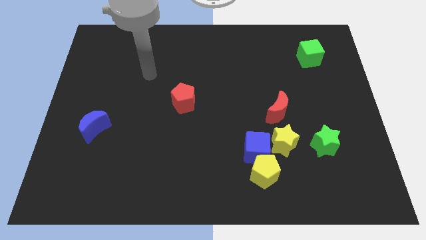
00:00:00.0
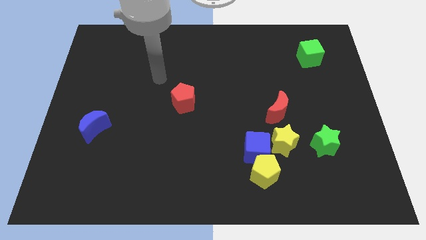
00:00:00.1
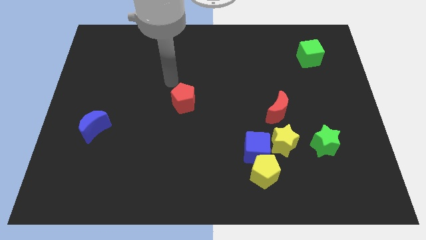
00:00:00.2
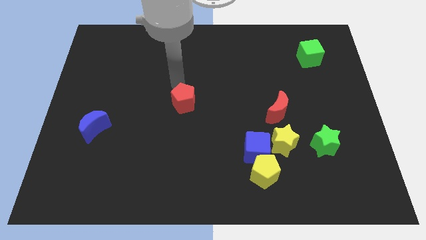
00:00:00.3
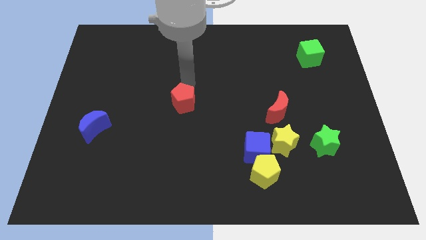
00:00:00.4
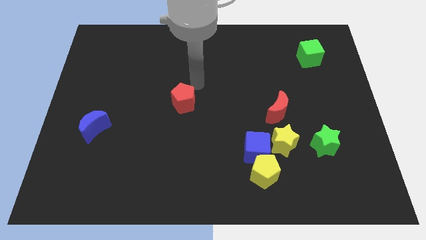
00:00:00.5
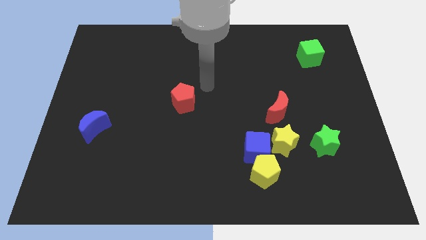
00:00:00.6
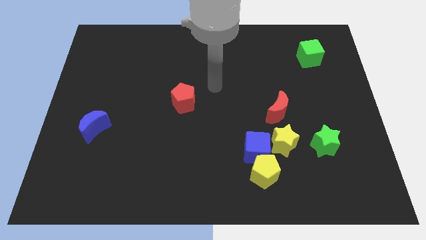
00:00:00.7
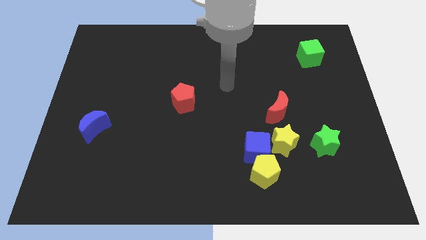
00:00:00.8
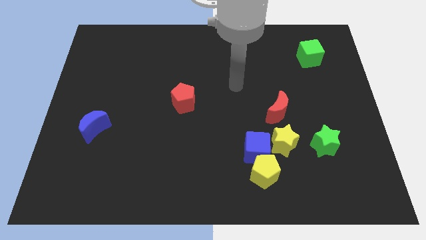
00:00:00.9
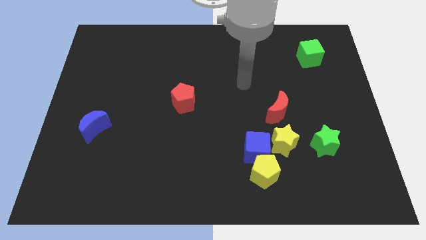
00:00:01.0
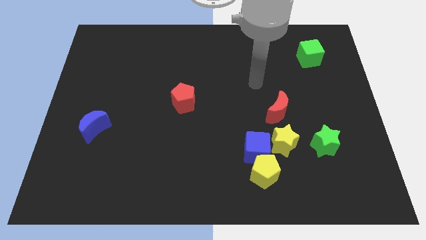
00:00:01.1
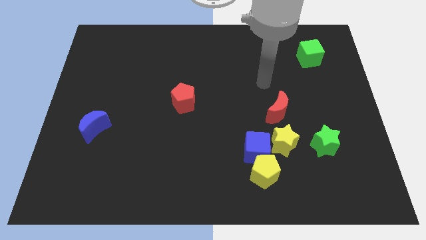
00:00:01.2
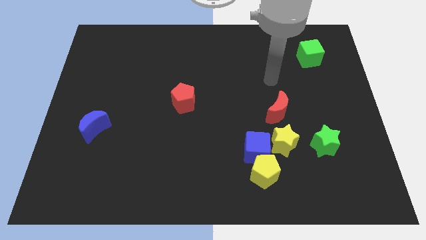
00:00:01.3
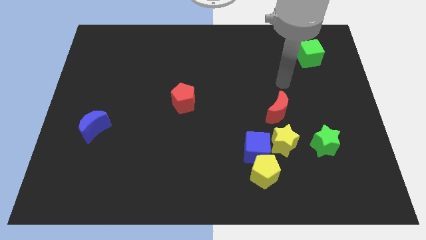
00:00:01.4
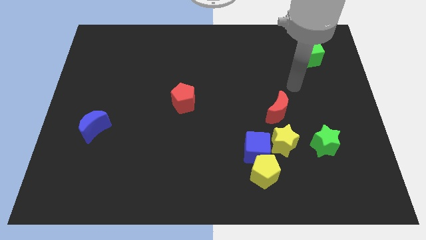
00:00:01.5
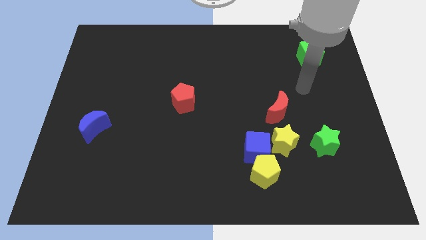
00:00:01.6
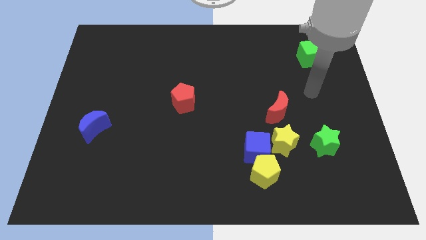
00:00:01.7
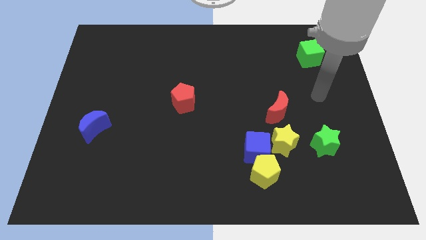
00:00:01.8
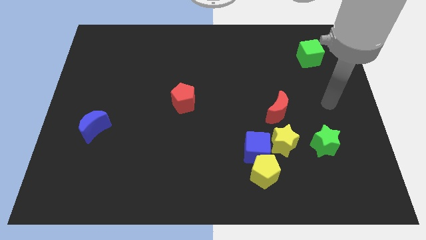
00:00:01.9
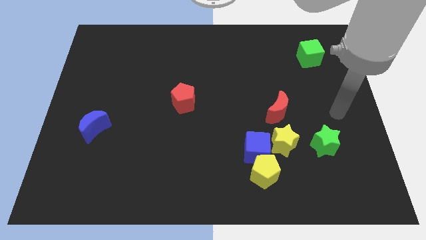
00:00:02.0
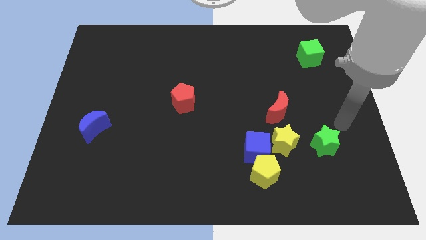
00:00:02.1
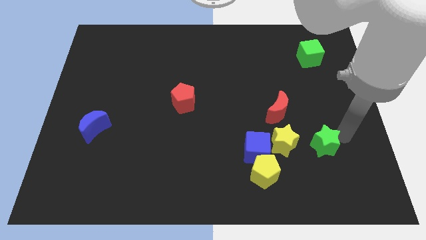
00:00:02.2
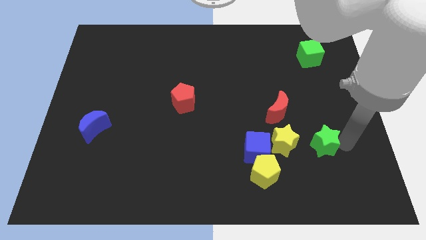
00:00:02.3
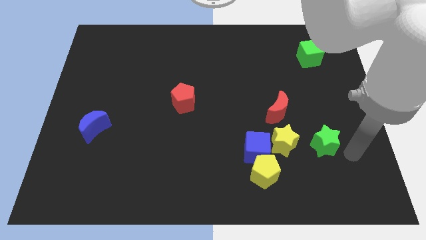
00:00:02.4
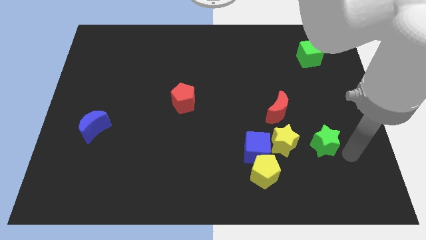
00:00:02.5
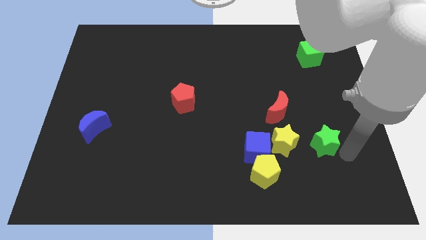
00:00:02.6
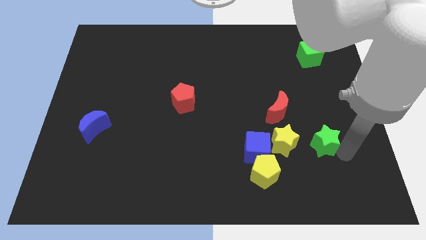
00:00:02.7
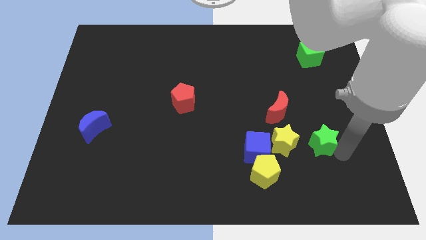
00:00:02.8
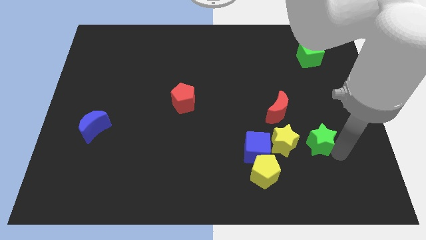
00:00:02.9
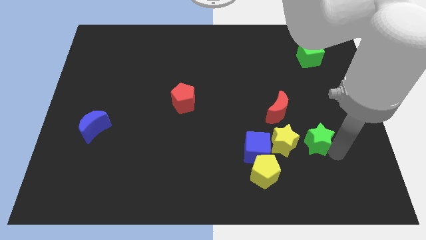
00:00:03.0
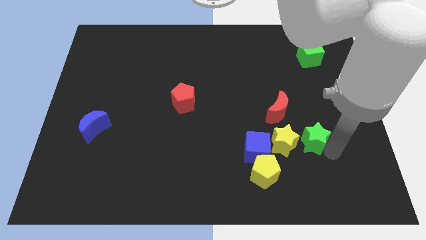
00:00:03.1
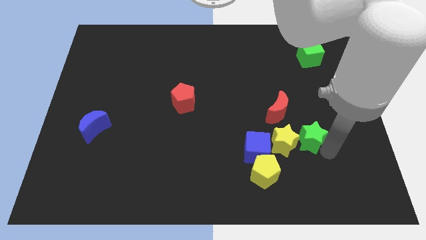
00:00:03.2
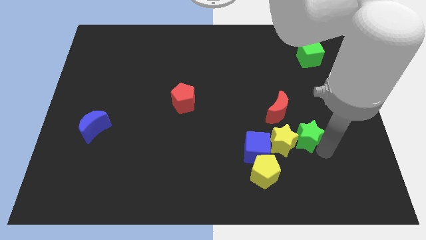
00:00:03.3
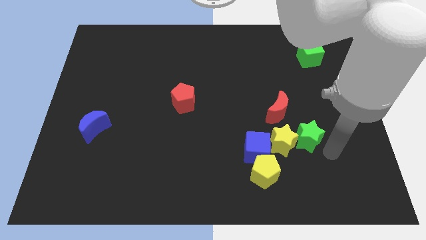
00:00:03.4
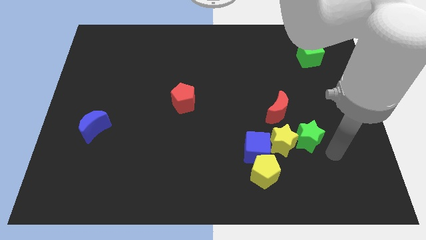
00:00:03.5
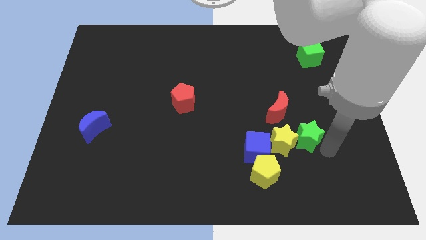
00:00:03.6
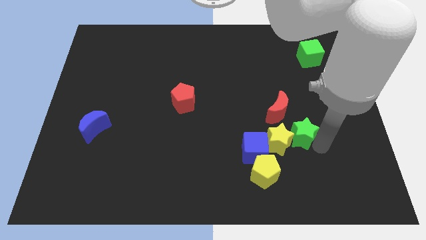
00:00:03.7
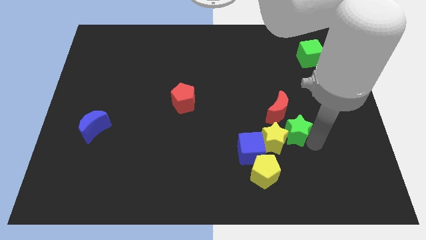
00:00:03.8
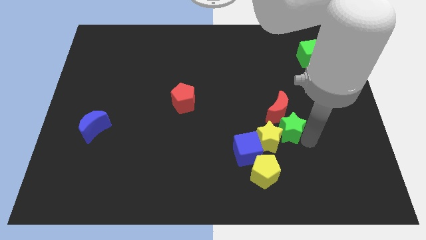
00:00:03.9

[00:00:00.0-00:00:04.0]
push the green star diagonally upwards and to the left a bit

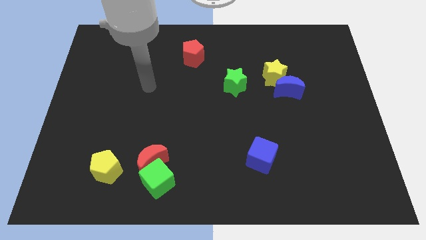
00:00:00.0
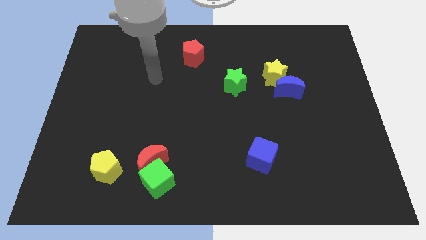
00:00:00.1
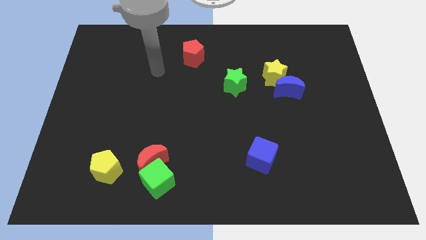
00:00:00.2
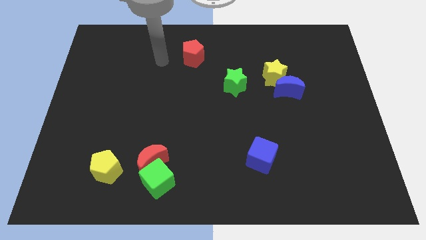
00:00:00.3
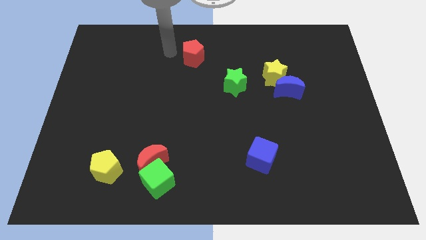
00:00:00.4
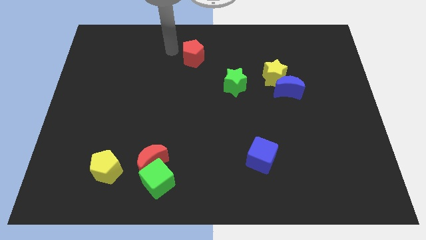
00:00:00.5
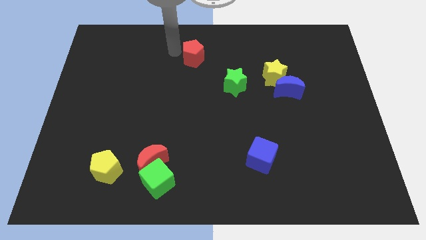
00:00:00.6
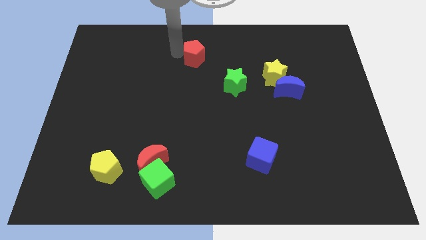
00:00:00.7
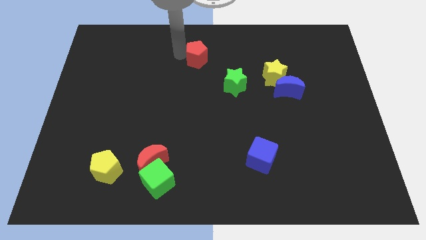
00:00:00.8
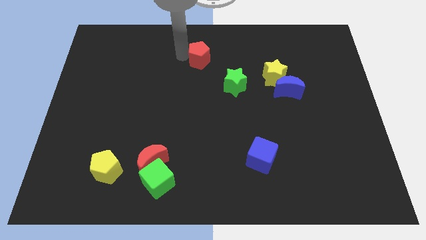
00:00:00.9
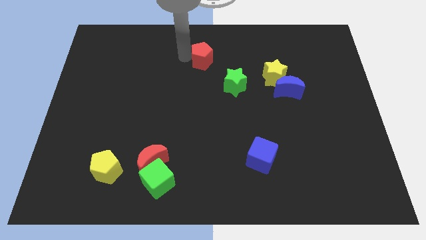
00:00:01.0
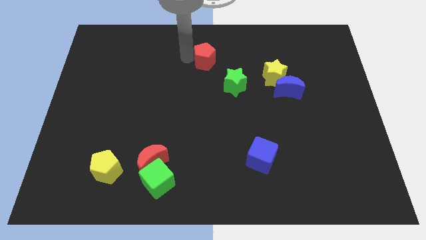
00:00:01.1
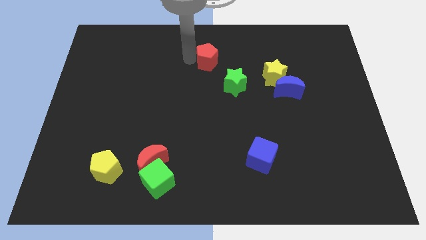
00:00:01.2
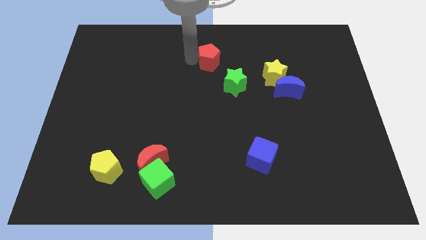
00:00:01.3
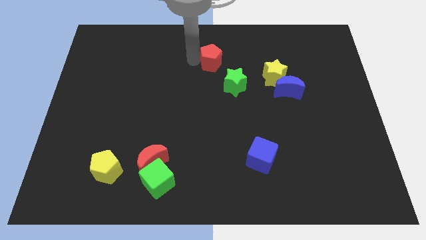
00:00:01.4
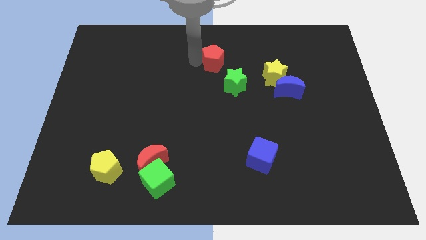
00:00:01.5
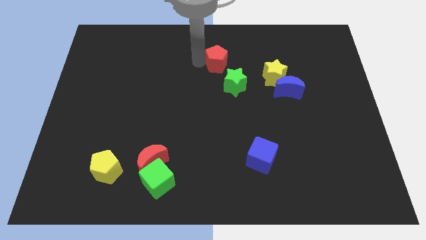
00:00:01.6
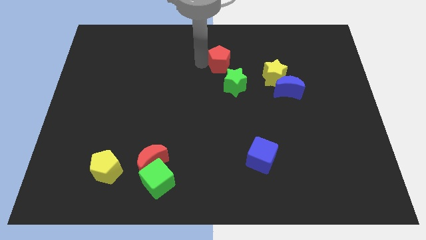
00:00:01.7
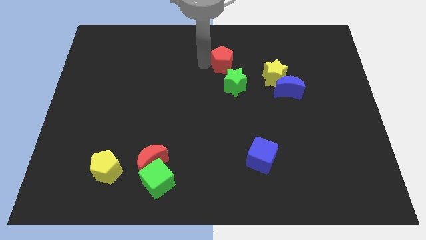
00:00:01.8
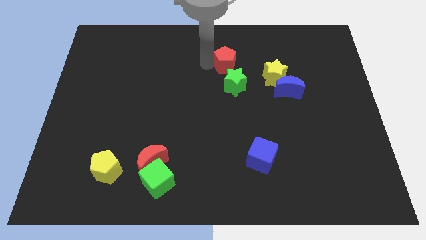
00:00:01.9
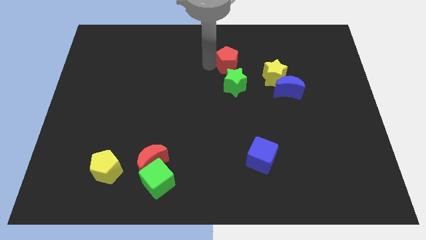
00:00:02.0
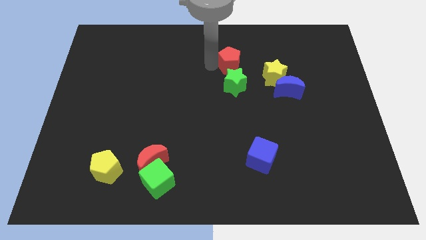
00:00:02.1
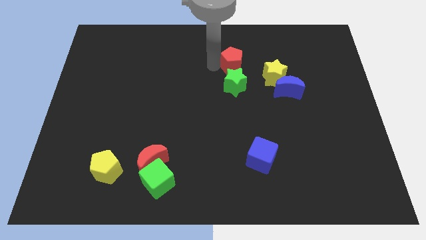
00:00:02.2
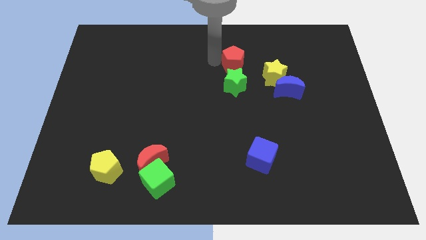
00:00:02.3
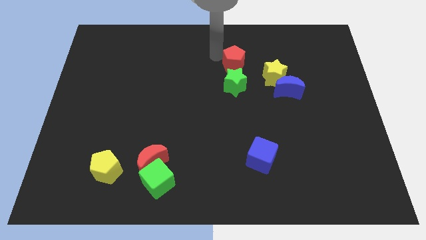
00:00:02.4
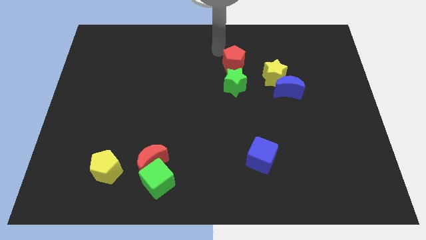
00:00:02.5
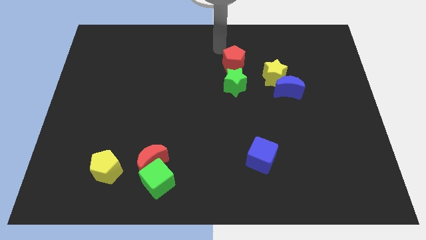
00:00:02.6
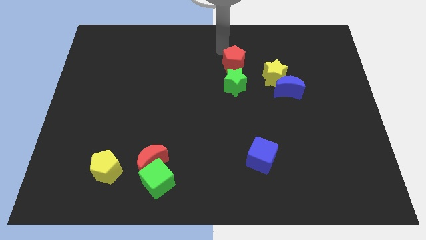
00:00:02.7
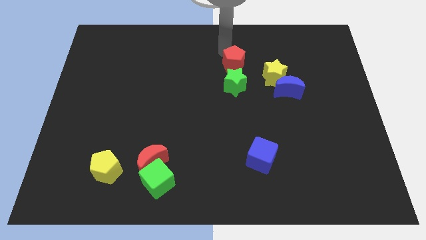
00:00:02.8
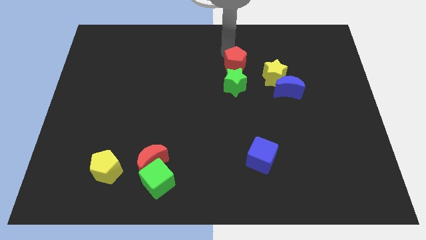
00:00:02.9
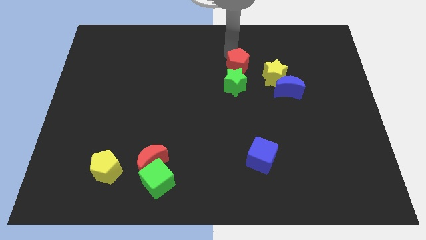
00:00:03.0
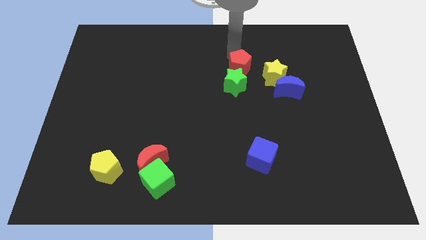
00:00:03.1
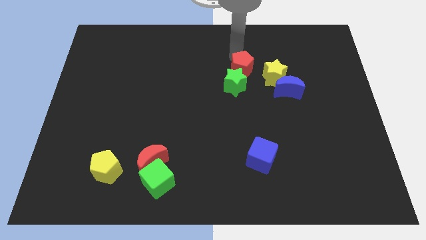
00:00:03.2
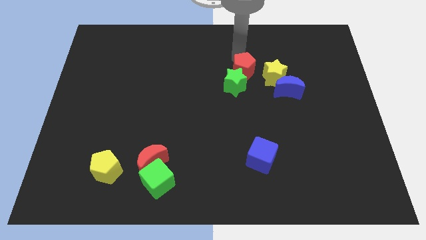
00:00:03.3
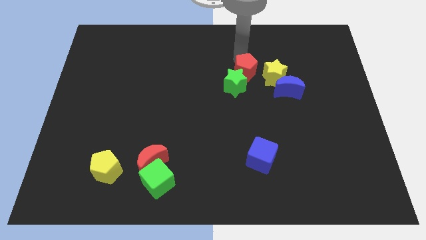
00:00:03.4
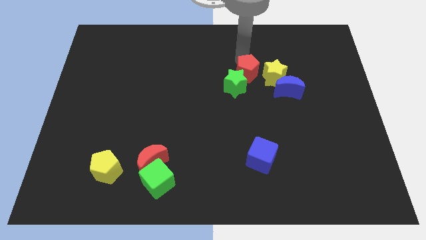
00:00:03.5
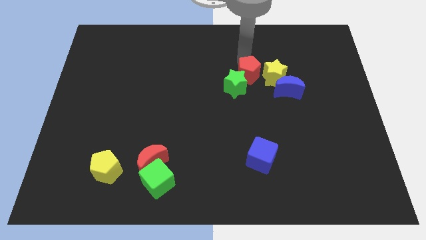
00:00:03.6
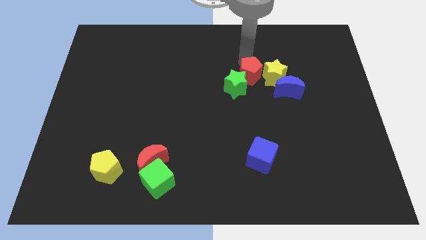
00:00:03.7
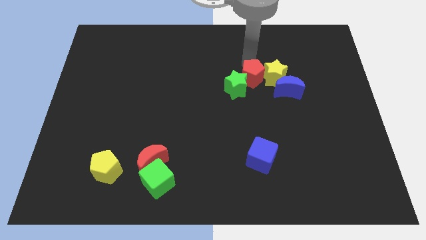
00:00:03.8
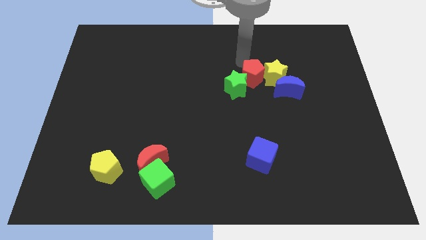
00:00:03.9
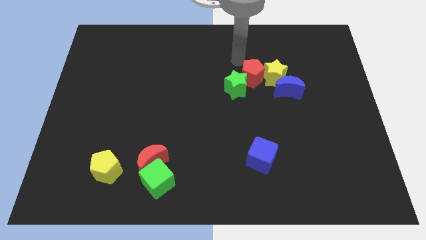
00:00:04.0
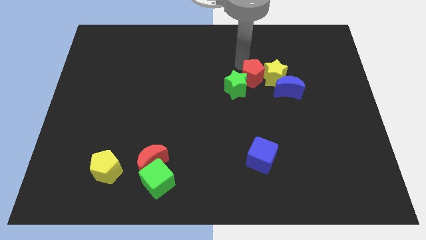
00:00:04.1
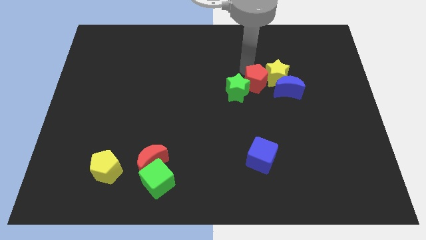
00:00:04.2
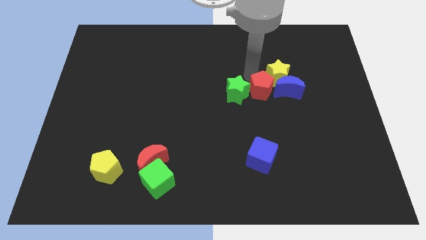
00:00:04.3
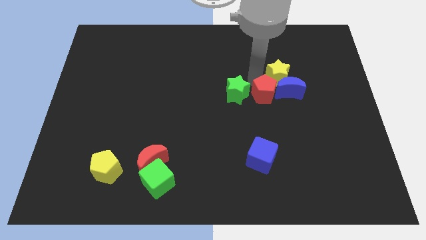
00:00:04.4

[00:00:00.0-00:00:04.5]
slide the red pentagon down and right
